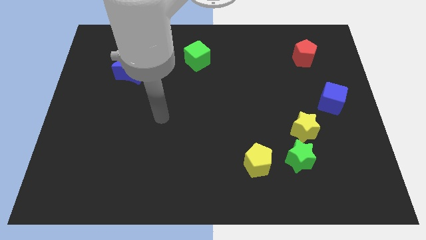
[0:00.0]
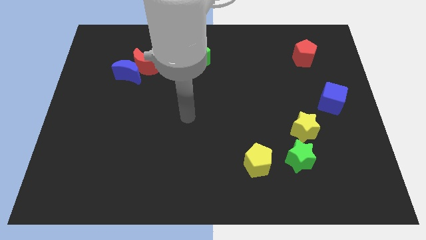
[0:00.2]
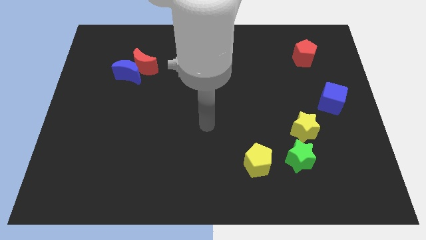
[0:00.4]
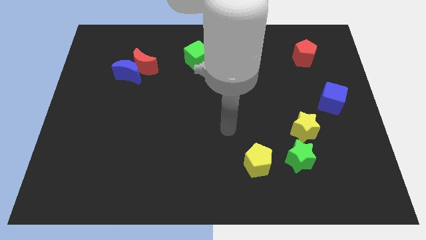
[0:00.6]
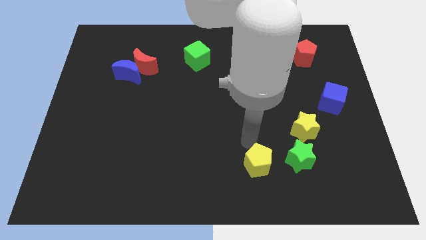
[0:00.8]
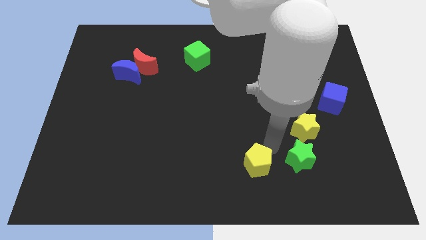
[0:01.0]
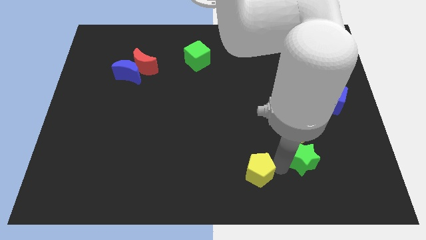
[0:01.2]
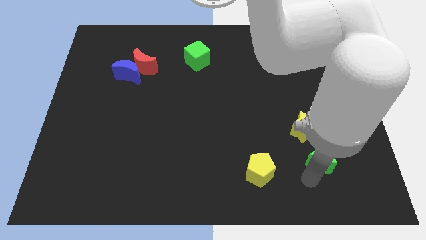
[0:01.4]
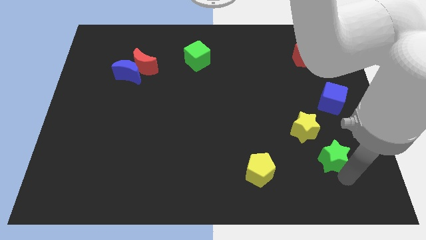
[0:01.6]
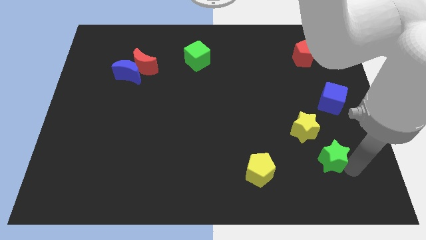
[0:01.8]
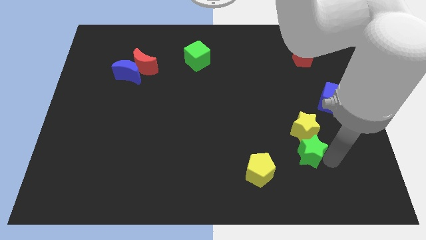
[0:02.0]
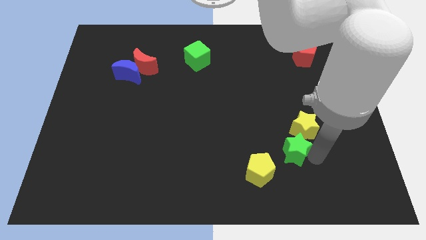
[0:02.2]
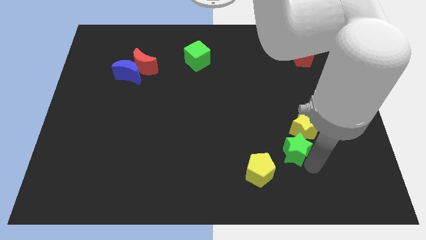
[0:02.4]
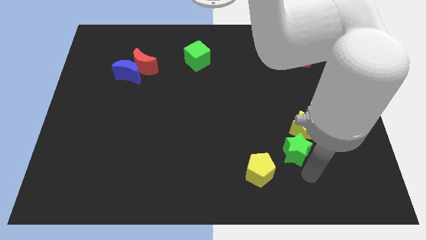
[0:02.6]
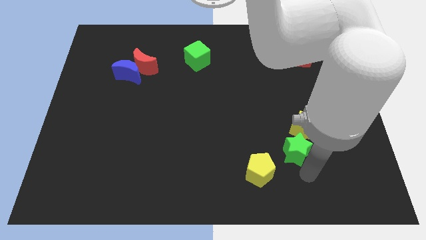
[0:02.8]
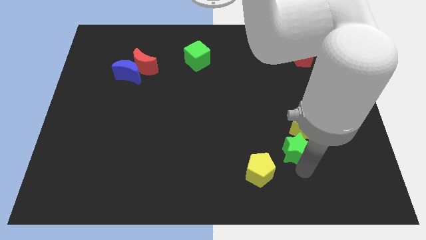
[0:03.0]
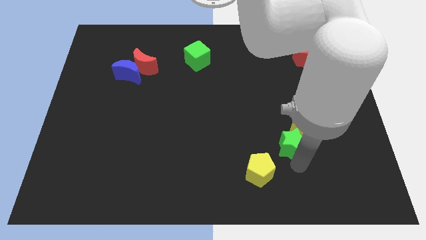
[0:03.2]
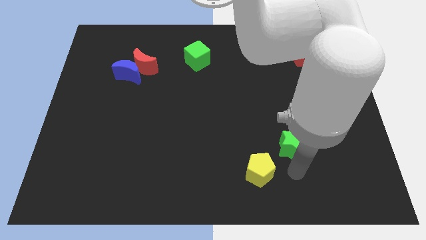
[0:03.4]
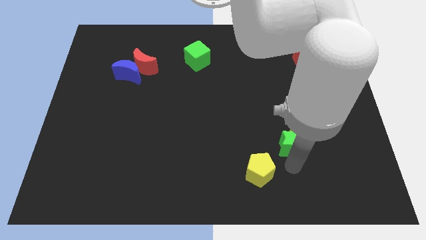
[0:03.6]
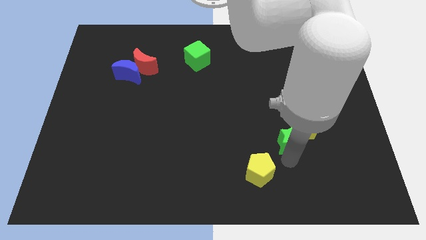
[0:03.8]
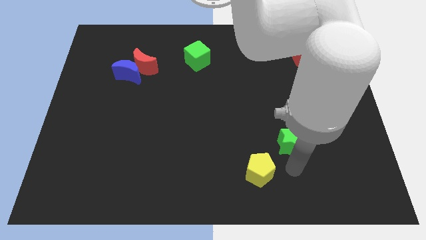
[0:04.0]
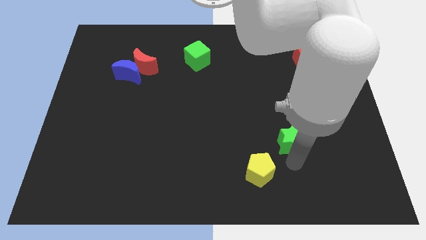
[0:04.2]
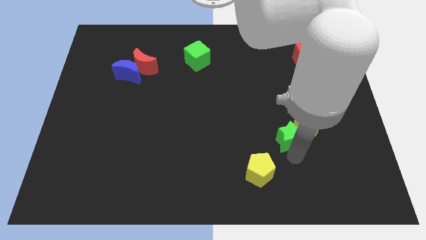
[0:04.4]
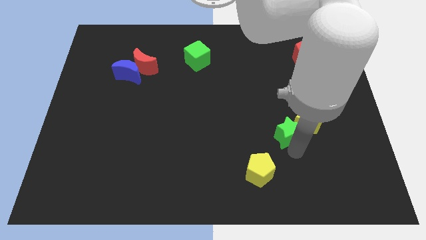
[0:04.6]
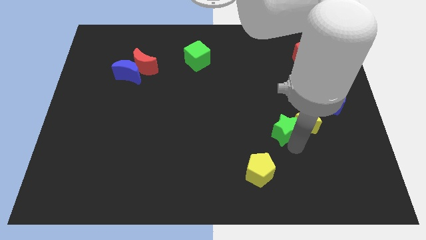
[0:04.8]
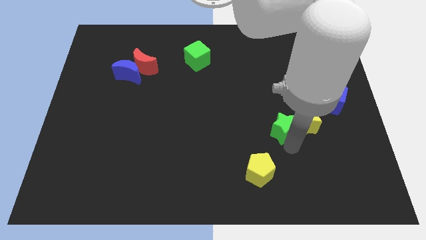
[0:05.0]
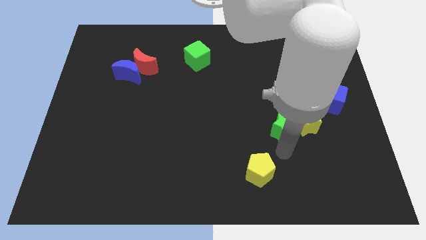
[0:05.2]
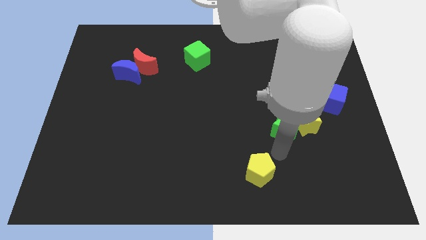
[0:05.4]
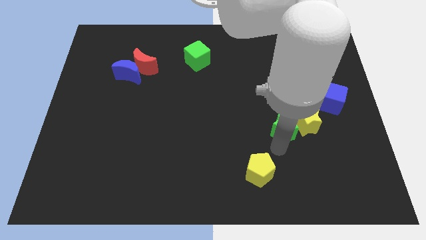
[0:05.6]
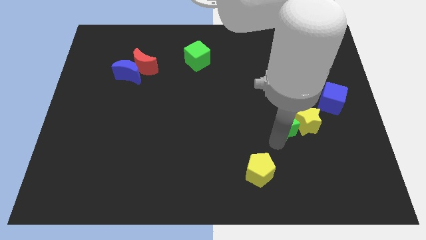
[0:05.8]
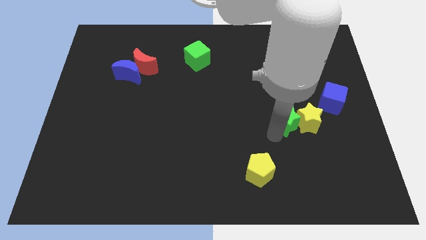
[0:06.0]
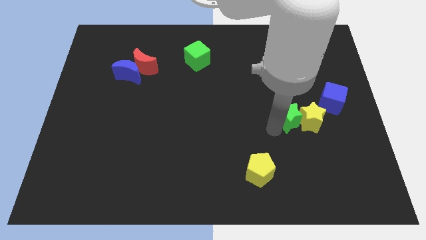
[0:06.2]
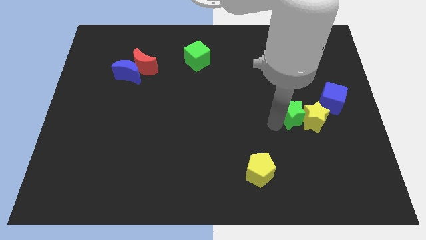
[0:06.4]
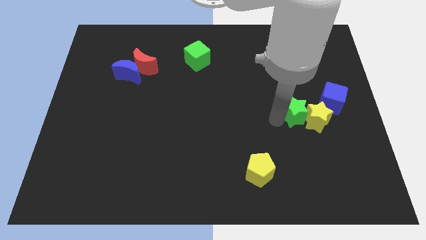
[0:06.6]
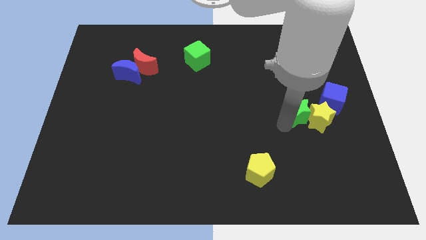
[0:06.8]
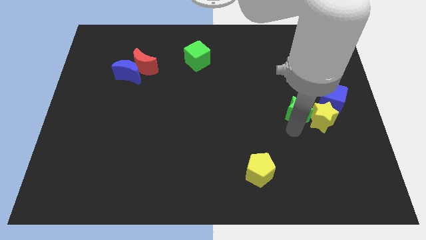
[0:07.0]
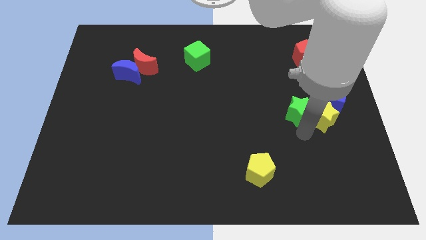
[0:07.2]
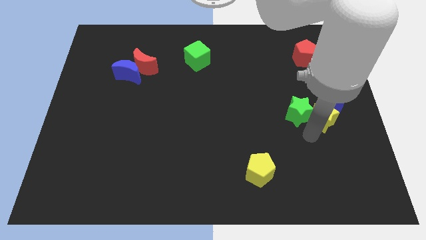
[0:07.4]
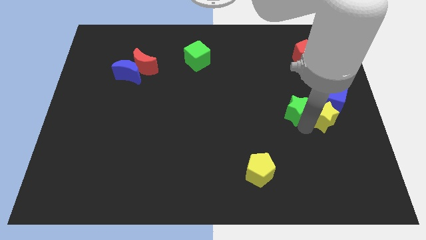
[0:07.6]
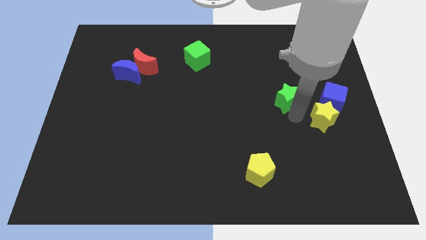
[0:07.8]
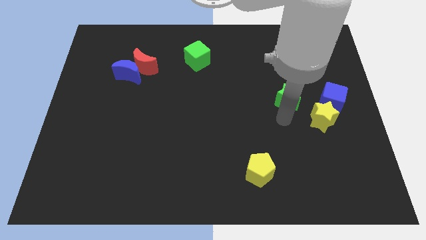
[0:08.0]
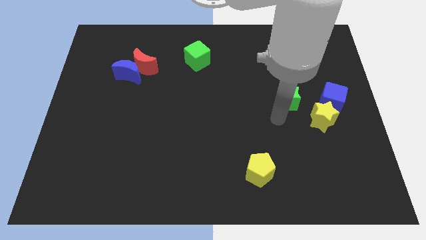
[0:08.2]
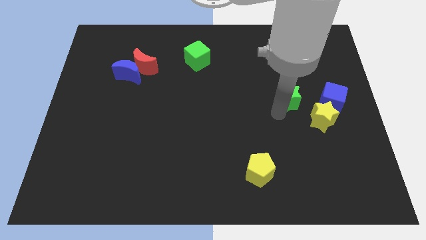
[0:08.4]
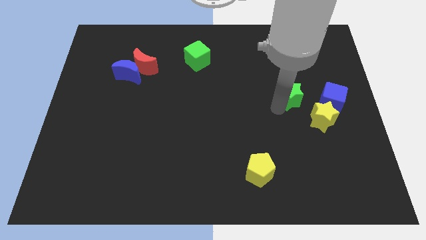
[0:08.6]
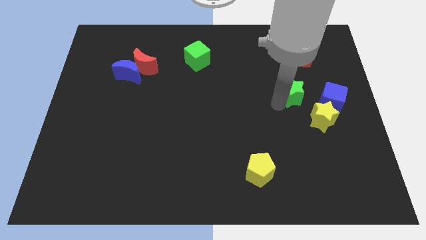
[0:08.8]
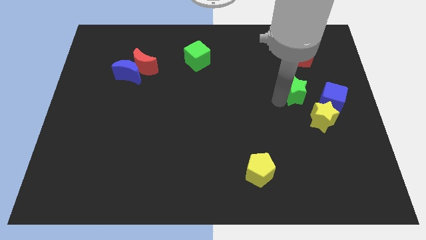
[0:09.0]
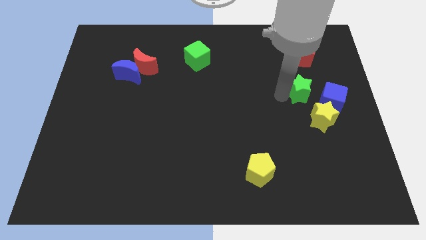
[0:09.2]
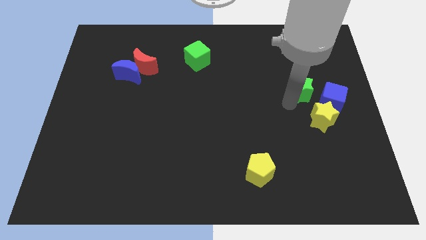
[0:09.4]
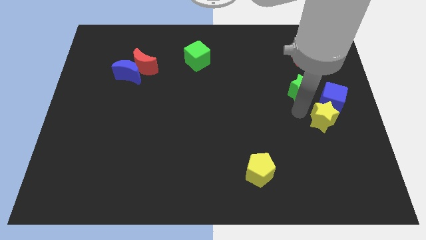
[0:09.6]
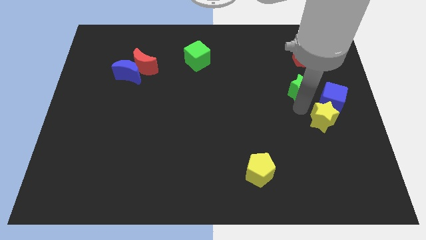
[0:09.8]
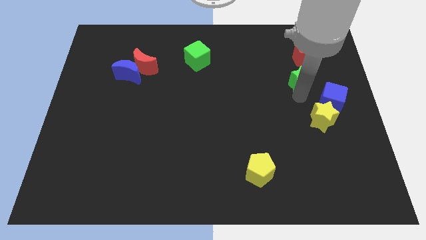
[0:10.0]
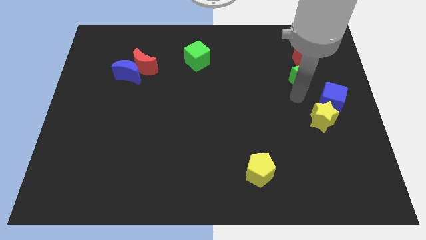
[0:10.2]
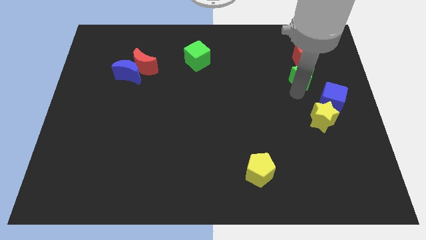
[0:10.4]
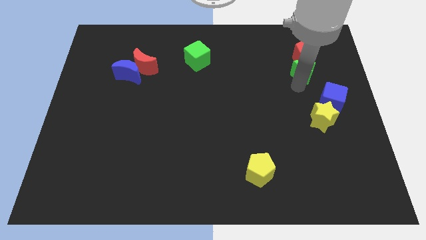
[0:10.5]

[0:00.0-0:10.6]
slide the green star to the red pentagon

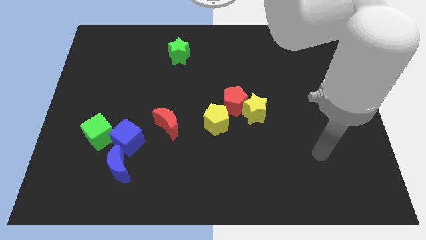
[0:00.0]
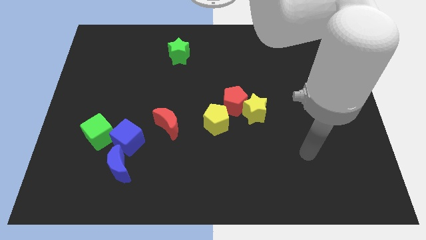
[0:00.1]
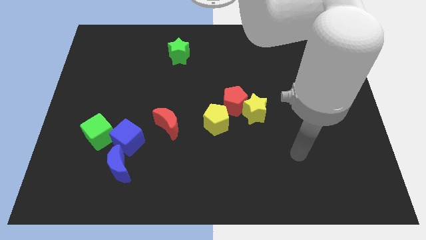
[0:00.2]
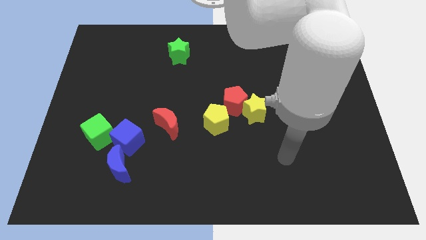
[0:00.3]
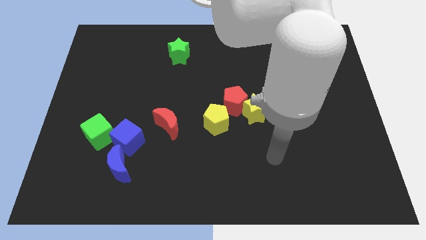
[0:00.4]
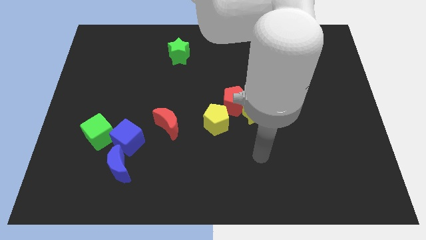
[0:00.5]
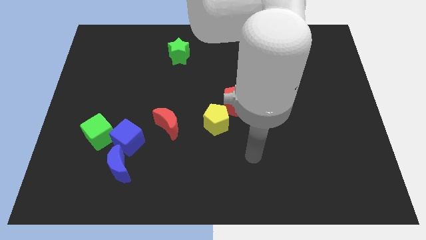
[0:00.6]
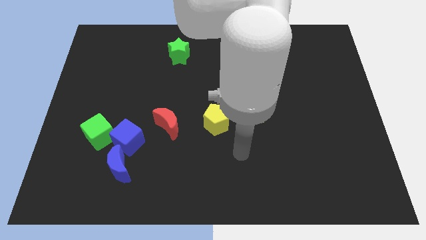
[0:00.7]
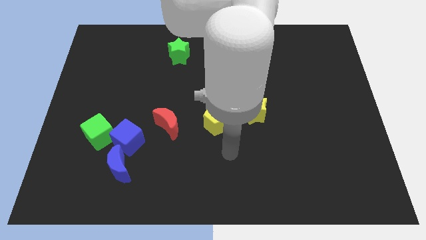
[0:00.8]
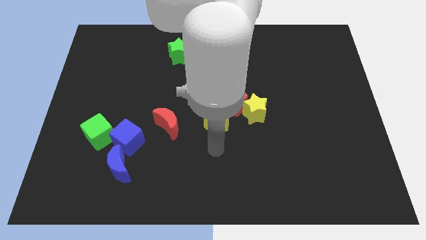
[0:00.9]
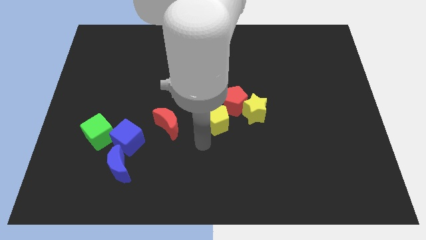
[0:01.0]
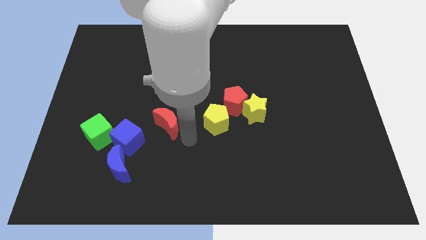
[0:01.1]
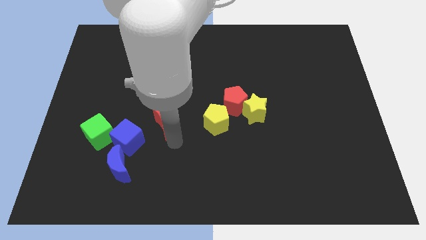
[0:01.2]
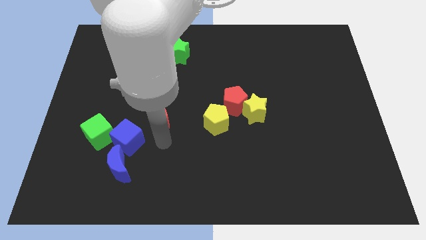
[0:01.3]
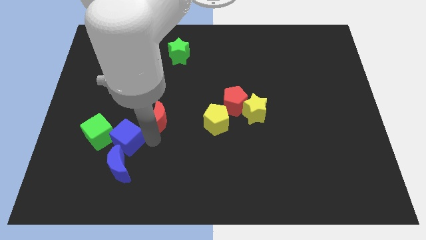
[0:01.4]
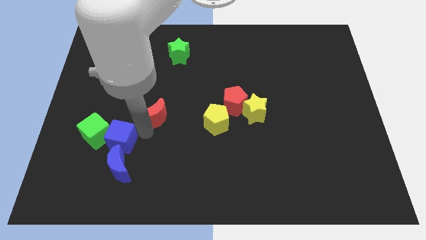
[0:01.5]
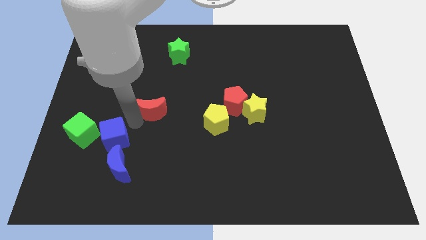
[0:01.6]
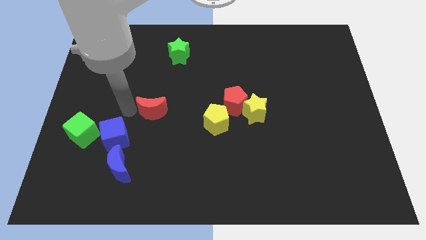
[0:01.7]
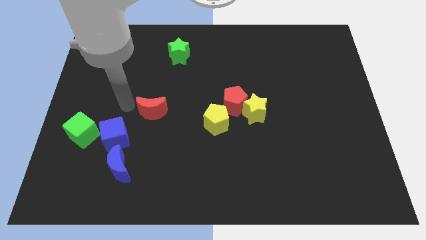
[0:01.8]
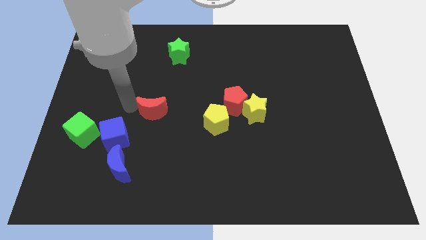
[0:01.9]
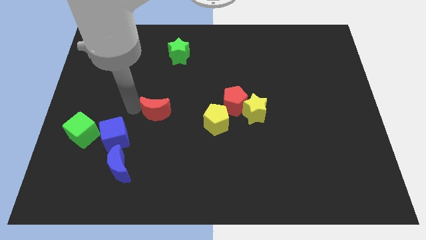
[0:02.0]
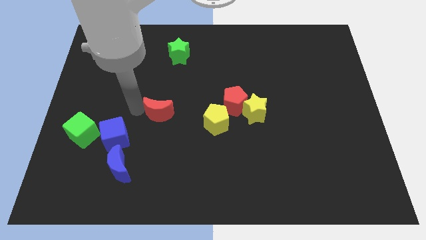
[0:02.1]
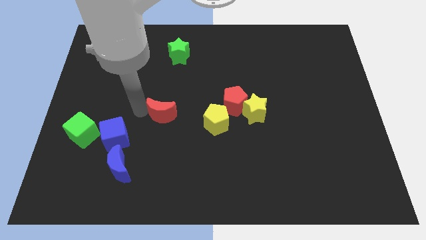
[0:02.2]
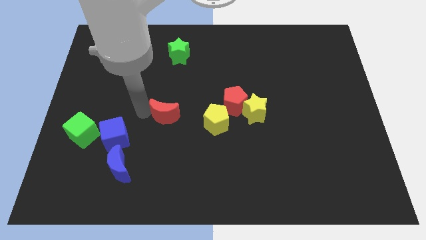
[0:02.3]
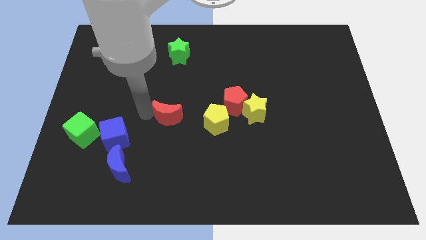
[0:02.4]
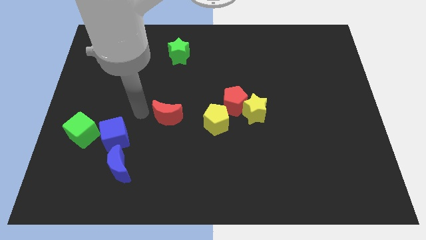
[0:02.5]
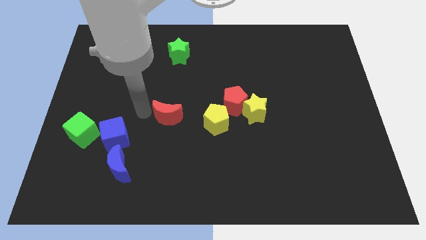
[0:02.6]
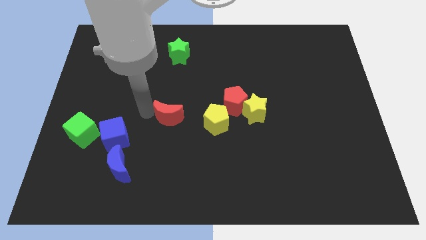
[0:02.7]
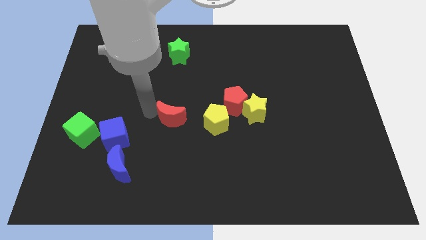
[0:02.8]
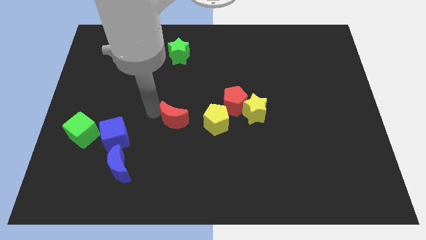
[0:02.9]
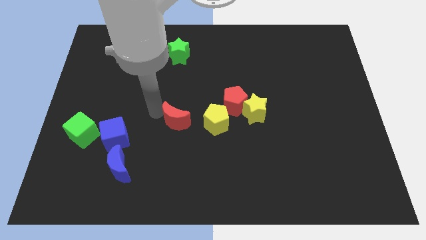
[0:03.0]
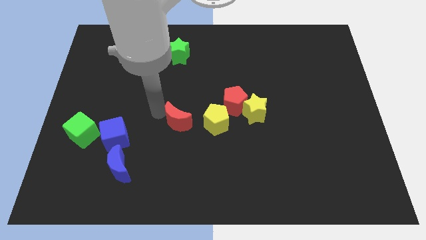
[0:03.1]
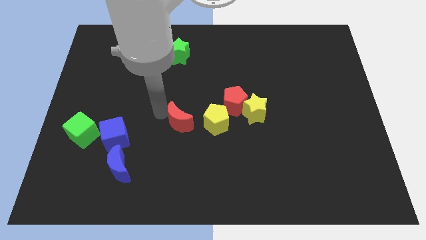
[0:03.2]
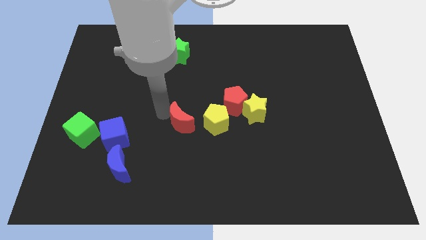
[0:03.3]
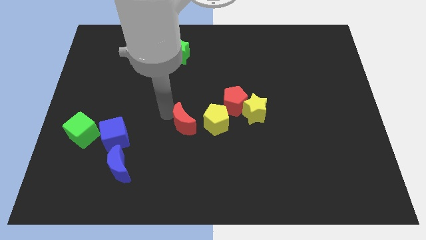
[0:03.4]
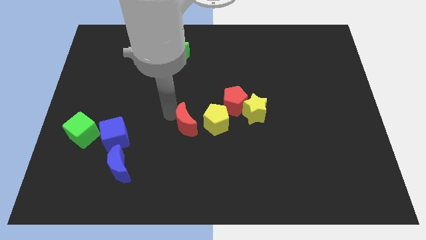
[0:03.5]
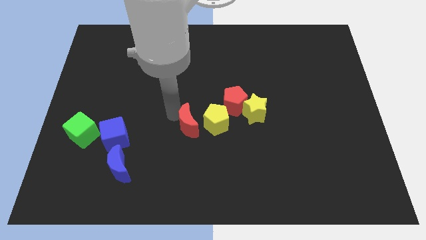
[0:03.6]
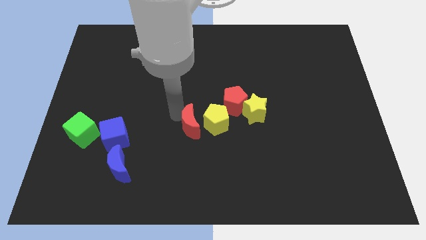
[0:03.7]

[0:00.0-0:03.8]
move the red moon to the yellow pentagon
